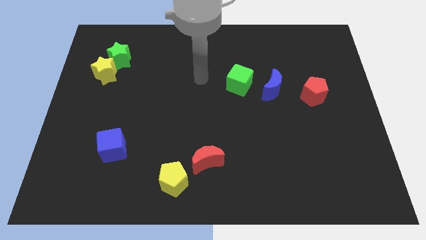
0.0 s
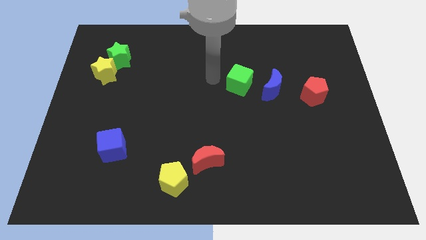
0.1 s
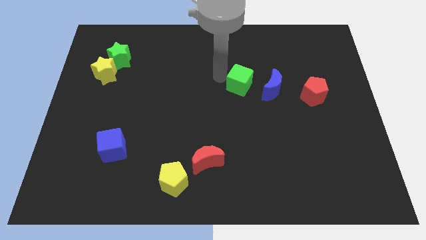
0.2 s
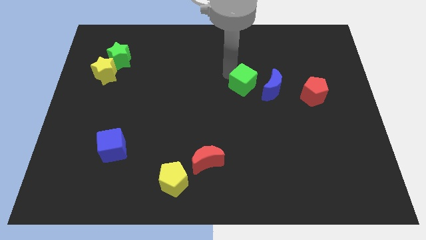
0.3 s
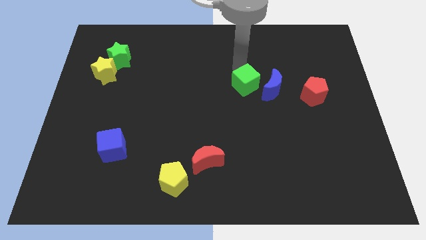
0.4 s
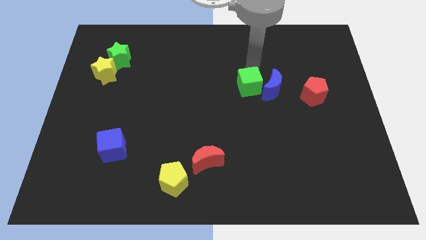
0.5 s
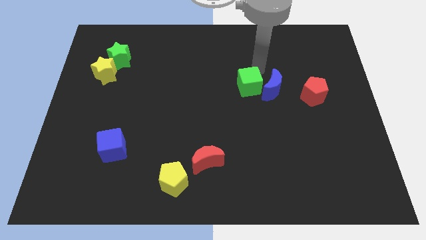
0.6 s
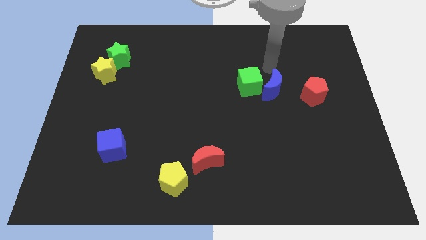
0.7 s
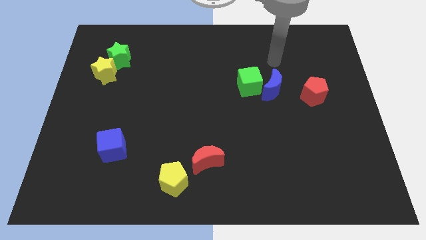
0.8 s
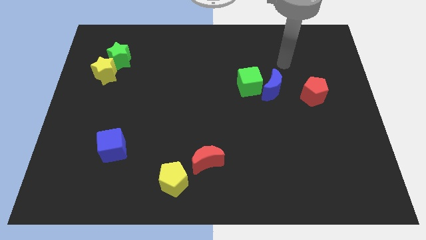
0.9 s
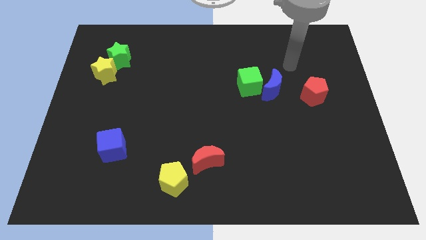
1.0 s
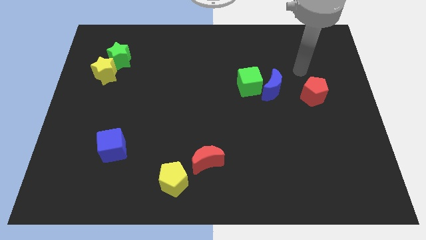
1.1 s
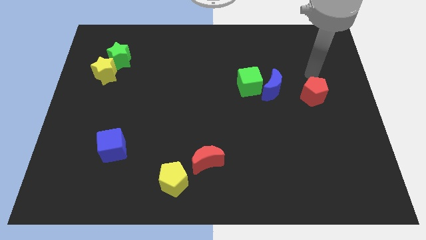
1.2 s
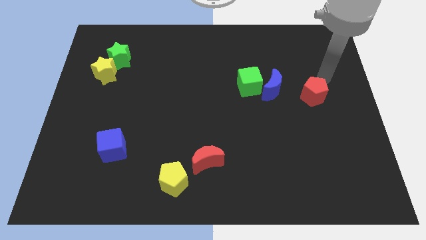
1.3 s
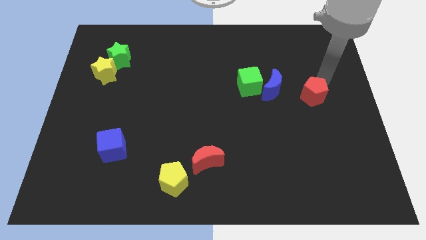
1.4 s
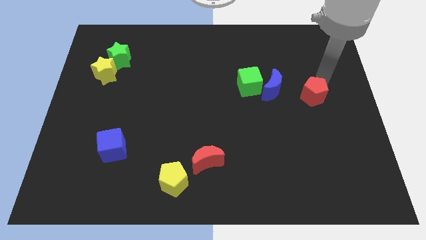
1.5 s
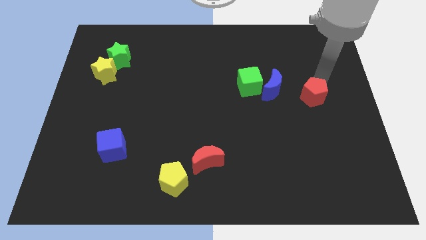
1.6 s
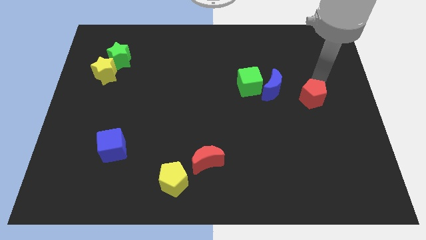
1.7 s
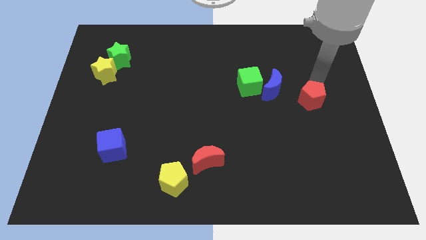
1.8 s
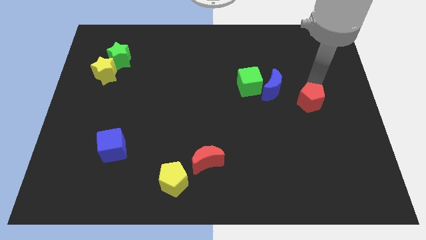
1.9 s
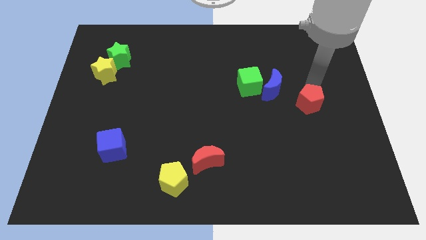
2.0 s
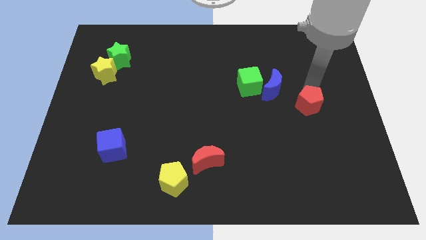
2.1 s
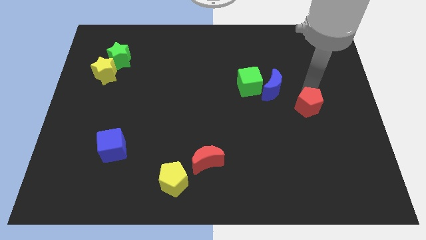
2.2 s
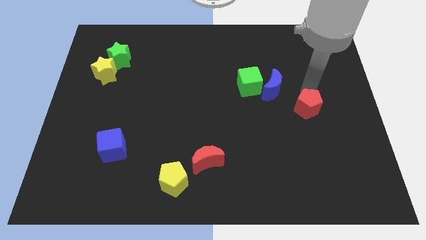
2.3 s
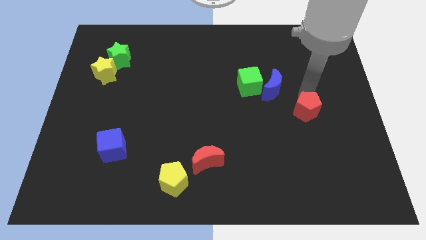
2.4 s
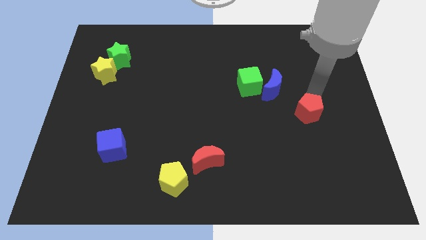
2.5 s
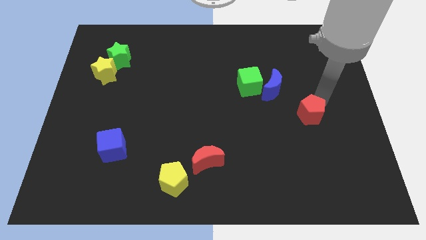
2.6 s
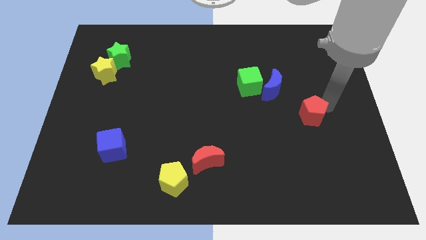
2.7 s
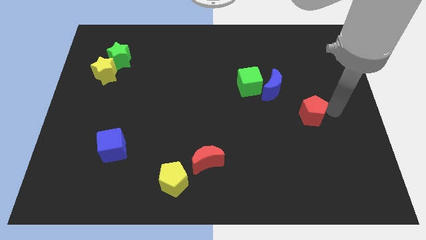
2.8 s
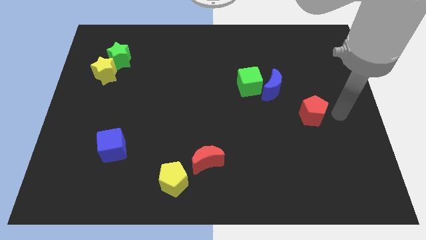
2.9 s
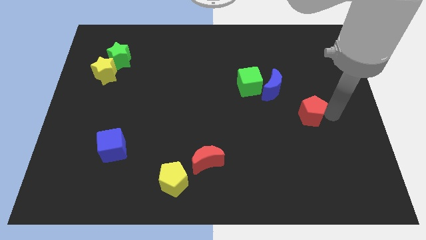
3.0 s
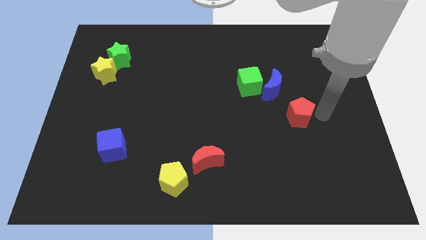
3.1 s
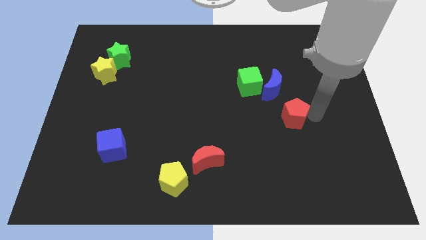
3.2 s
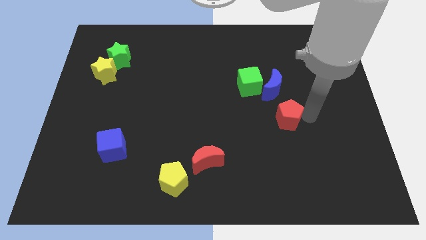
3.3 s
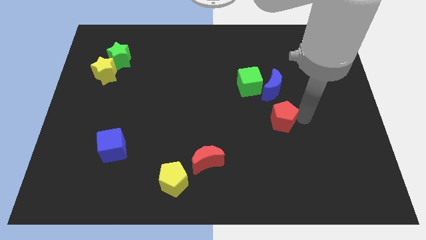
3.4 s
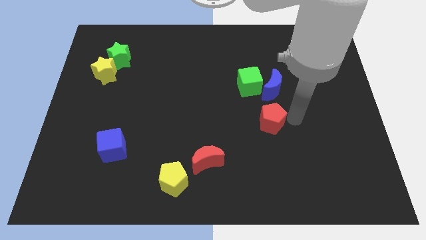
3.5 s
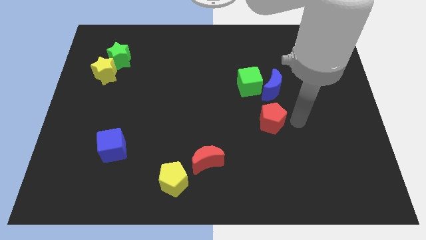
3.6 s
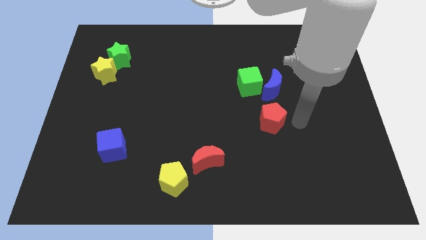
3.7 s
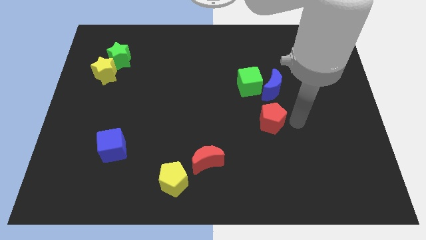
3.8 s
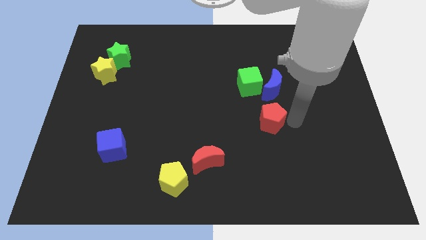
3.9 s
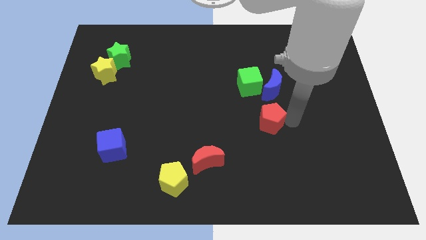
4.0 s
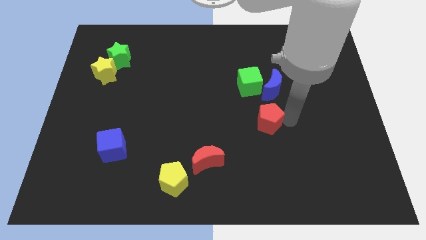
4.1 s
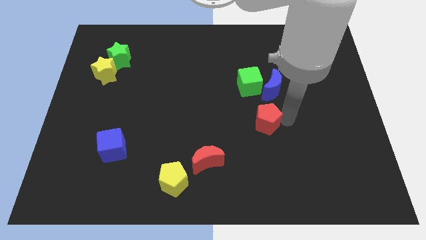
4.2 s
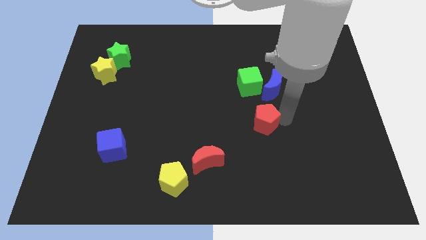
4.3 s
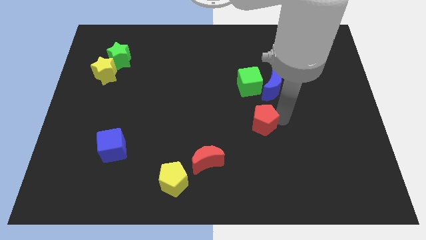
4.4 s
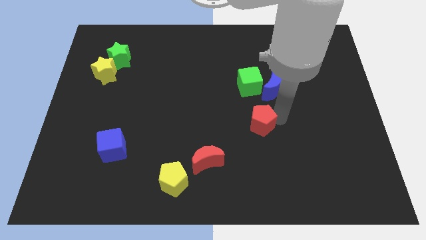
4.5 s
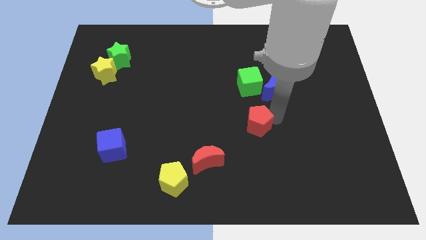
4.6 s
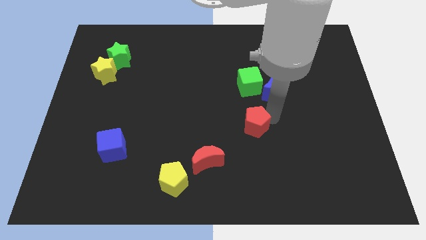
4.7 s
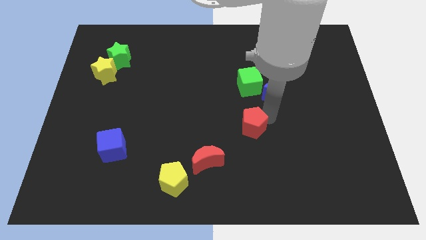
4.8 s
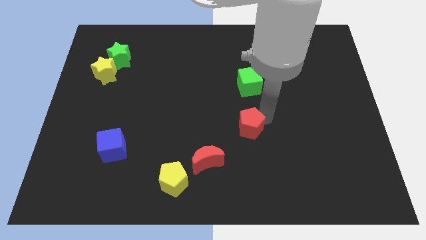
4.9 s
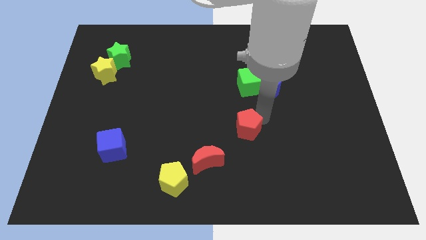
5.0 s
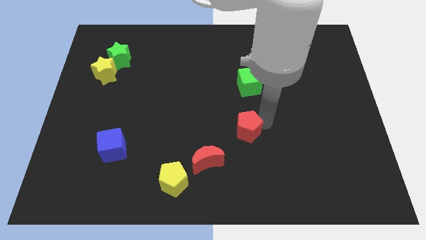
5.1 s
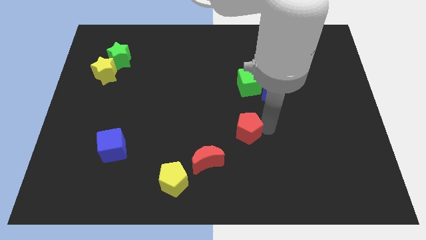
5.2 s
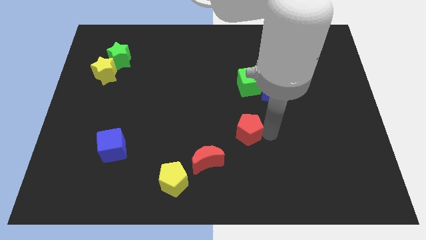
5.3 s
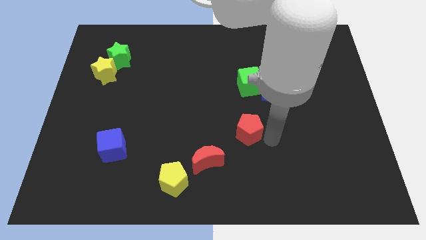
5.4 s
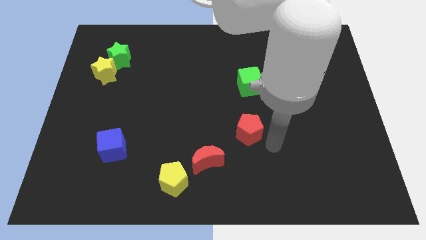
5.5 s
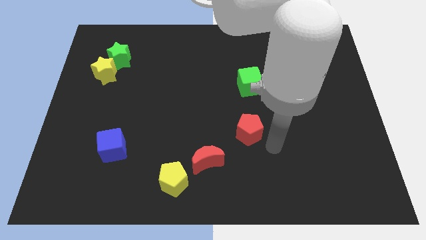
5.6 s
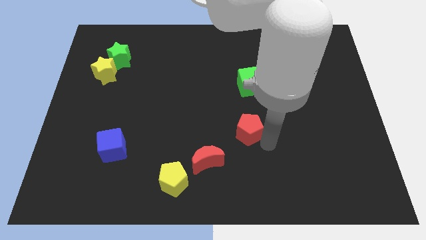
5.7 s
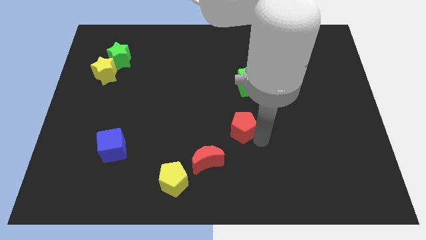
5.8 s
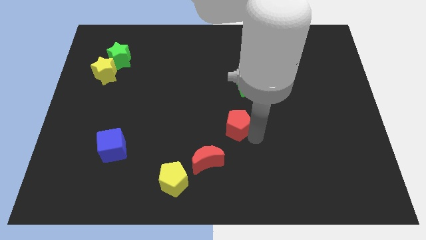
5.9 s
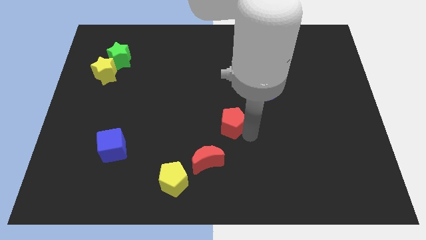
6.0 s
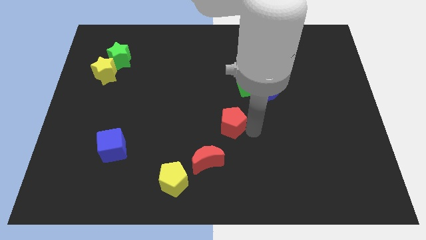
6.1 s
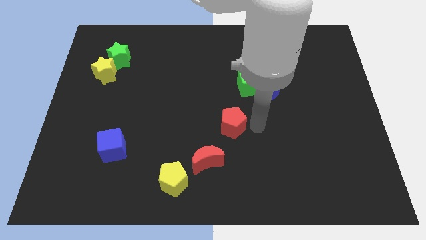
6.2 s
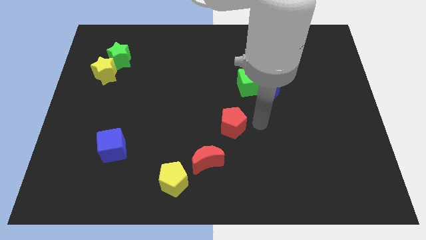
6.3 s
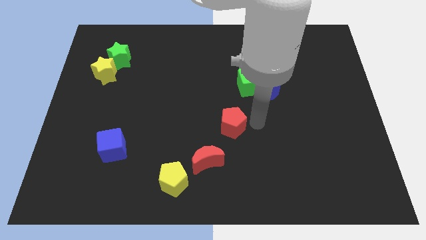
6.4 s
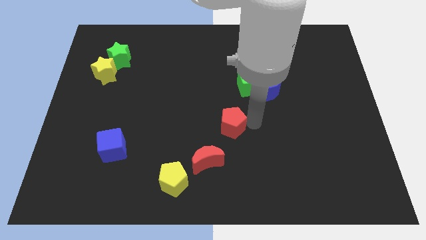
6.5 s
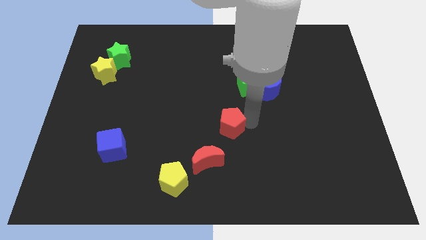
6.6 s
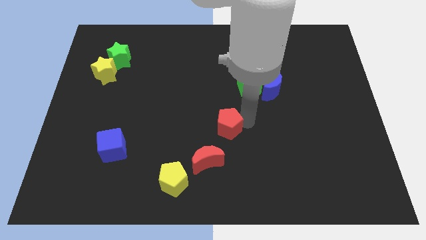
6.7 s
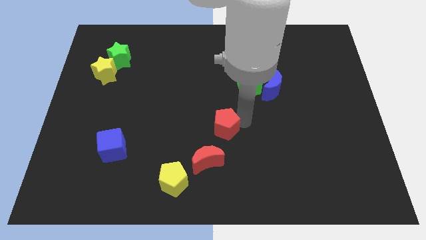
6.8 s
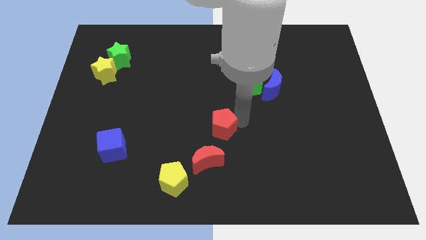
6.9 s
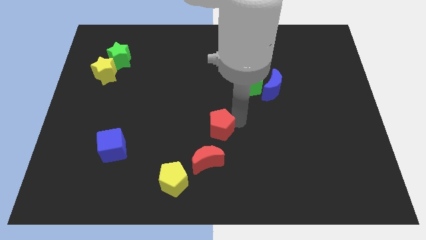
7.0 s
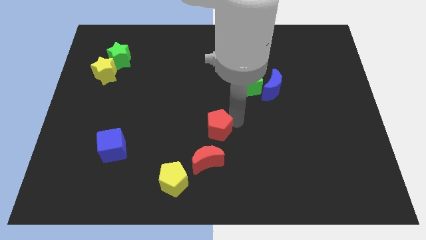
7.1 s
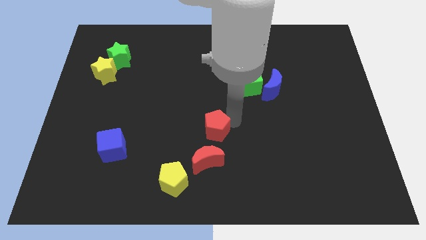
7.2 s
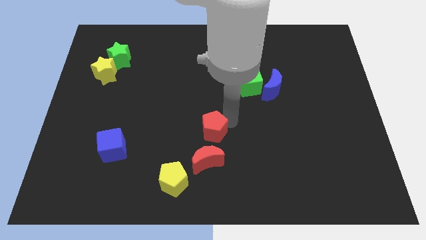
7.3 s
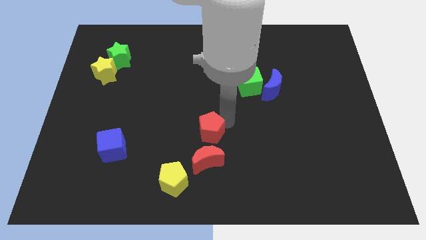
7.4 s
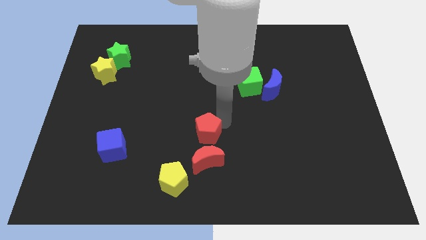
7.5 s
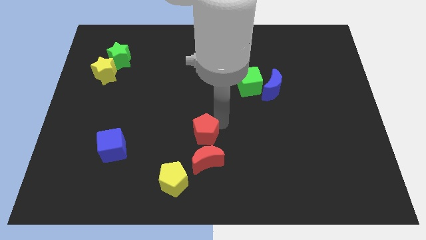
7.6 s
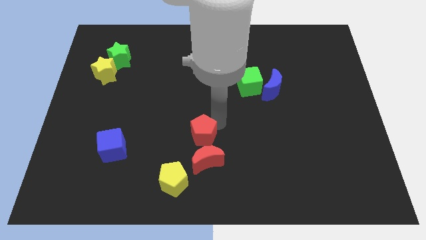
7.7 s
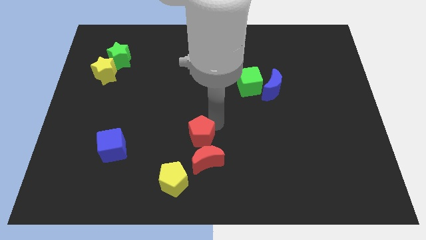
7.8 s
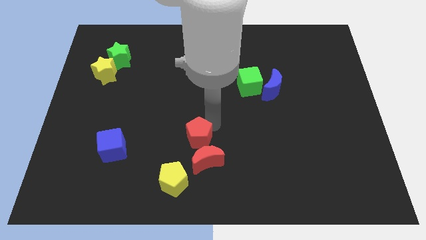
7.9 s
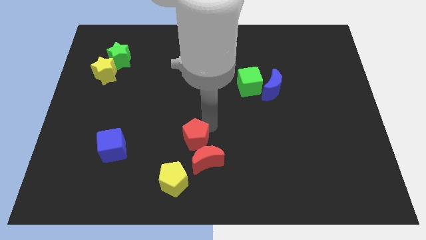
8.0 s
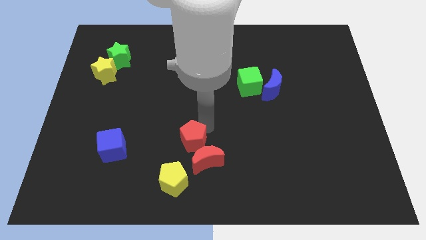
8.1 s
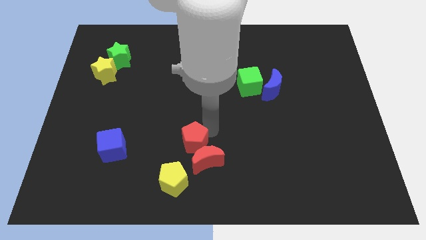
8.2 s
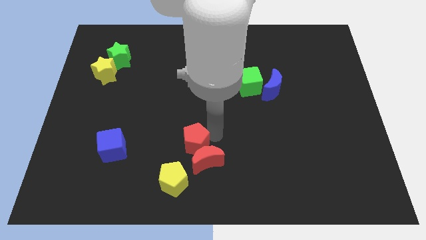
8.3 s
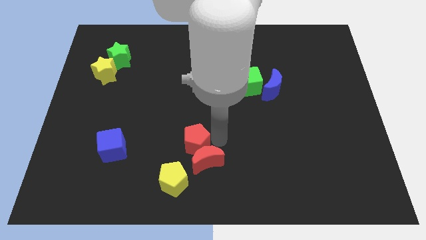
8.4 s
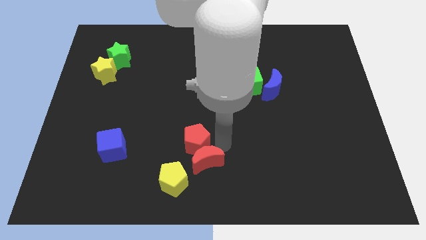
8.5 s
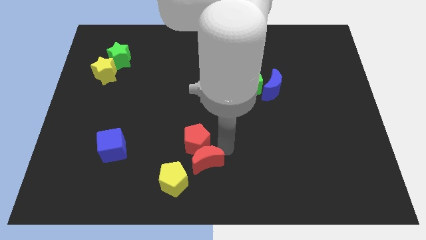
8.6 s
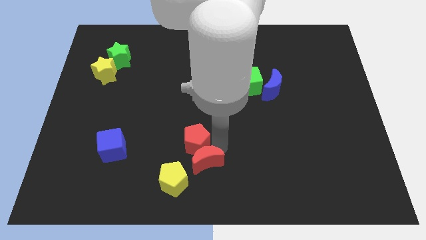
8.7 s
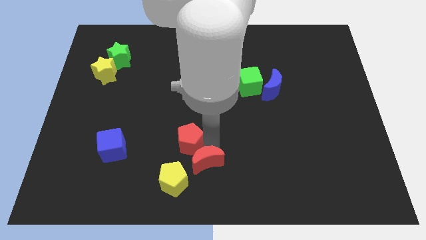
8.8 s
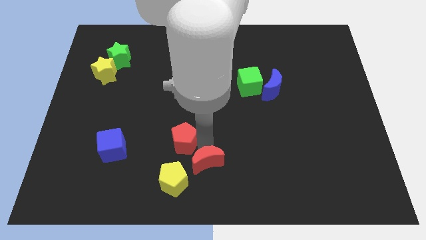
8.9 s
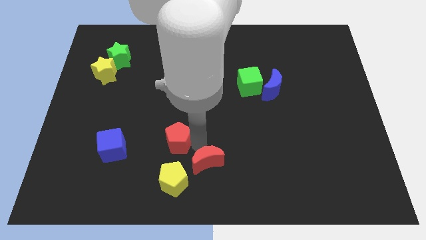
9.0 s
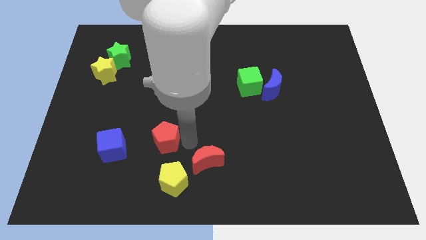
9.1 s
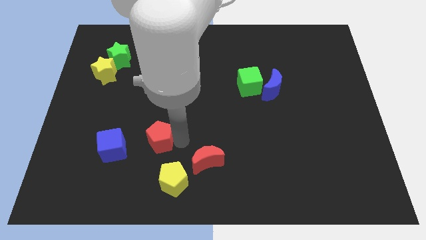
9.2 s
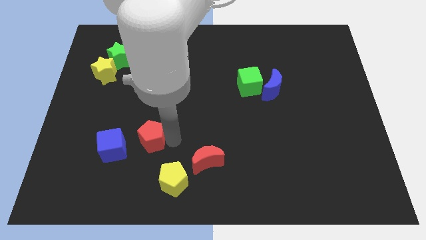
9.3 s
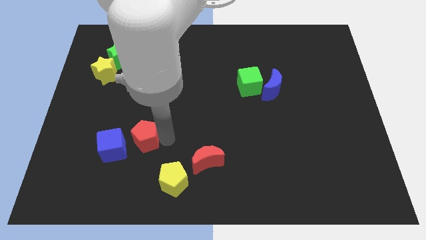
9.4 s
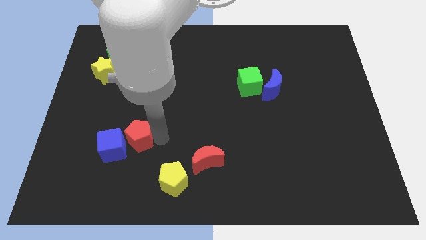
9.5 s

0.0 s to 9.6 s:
push the red pentagon close to the blue cube
